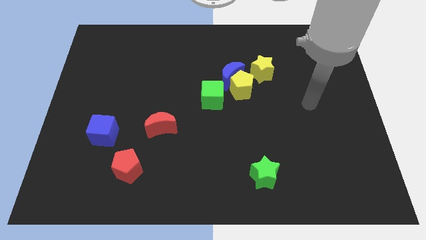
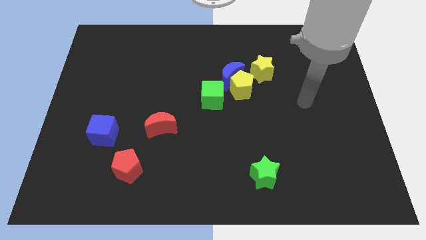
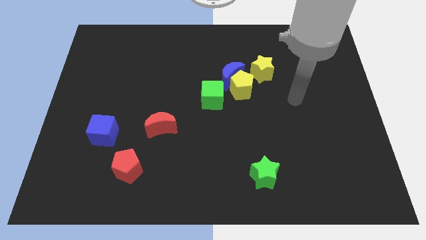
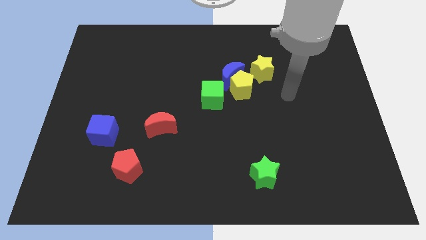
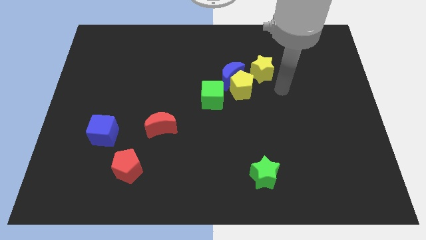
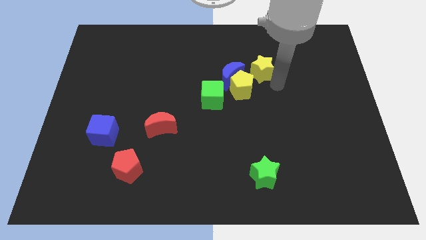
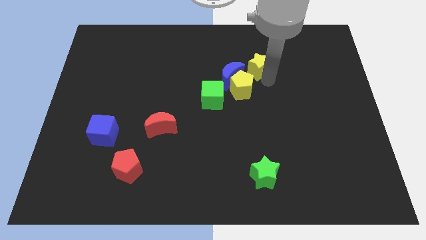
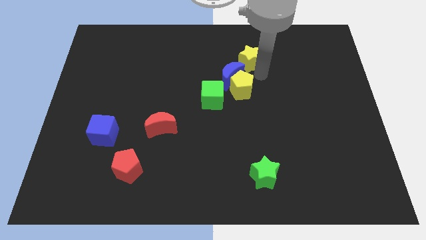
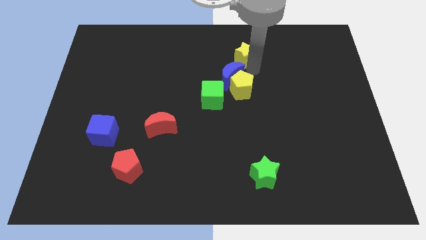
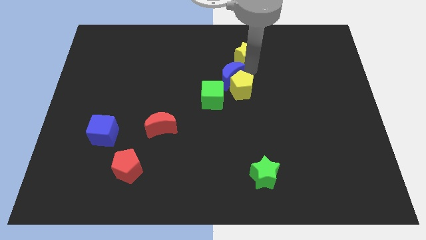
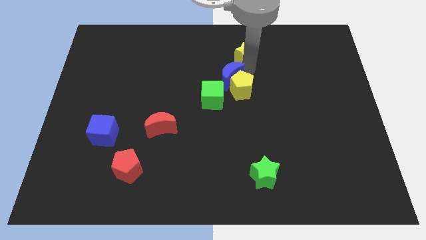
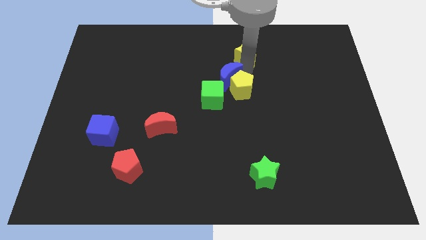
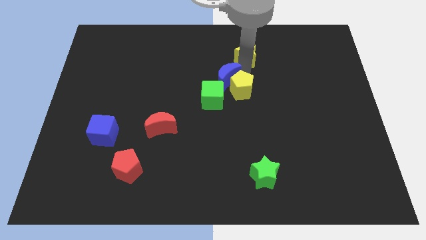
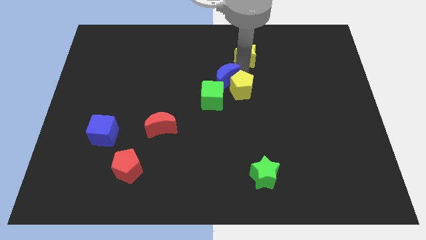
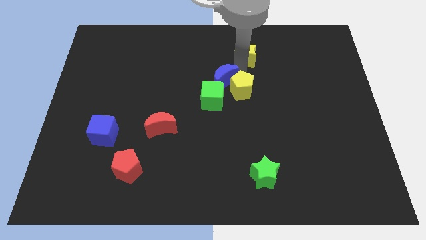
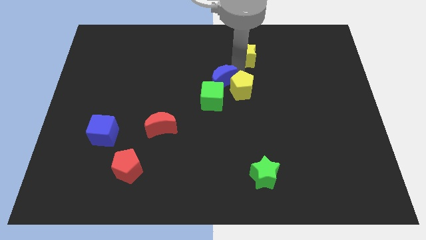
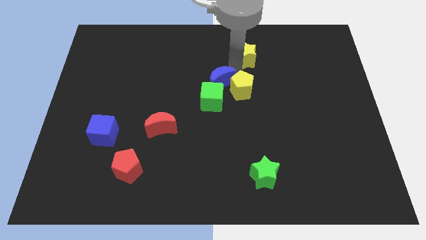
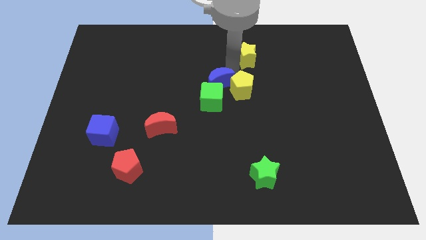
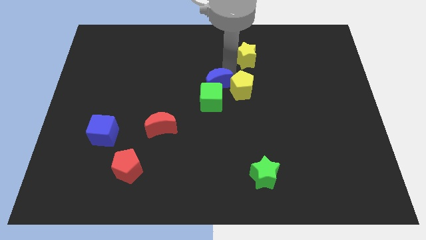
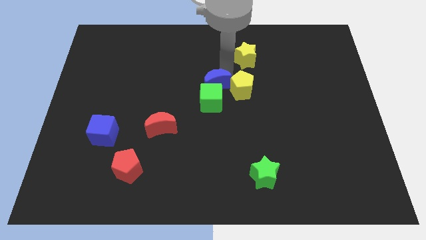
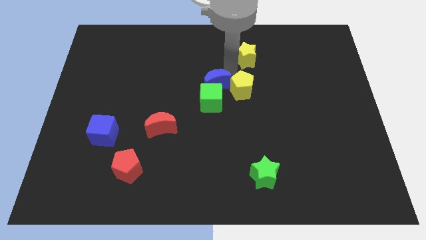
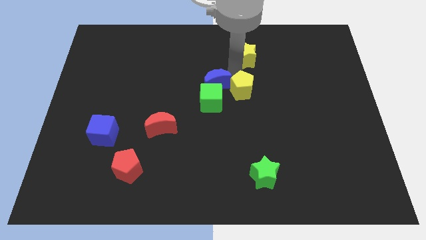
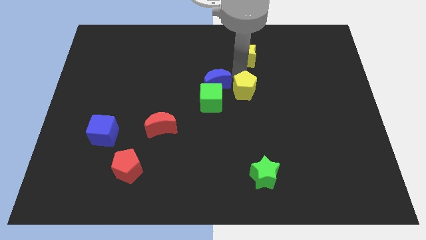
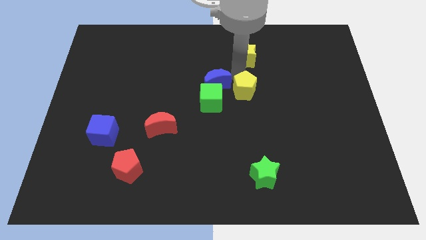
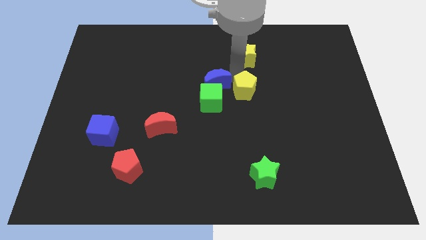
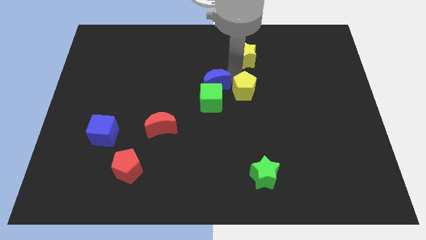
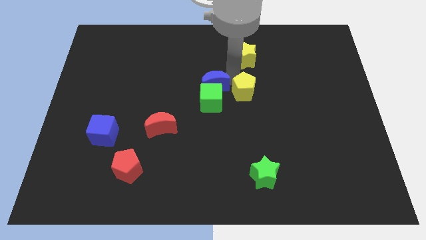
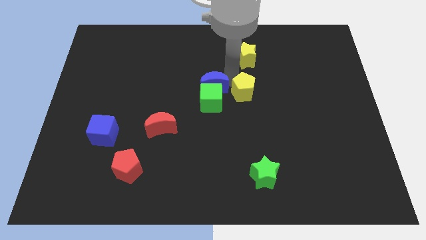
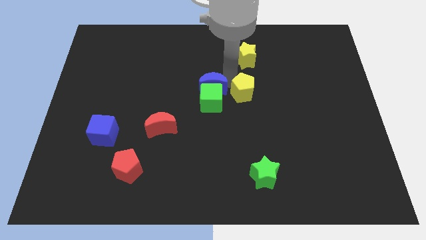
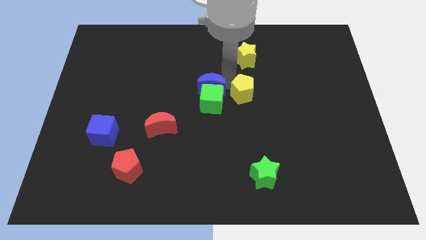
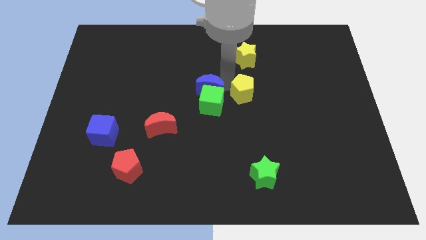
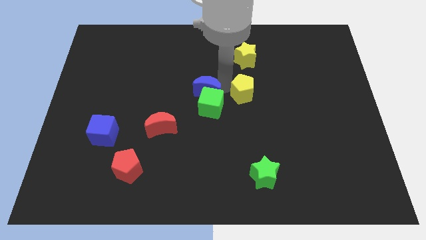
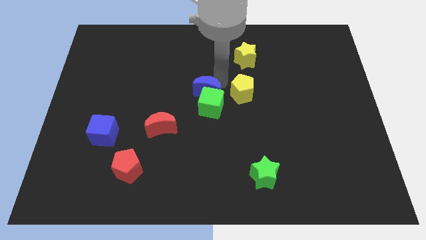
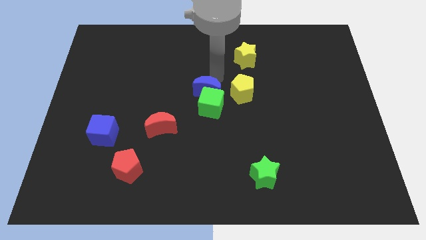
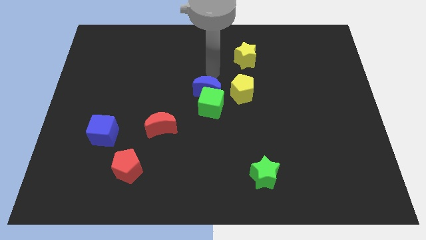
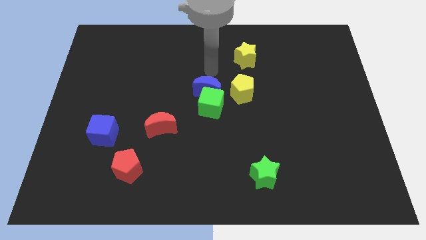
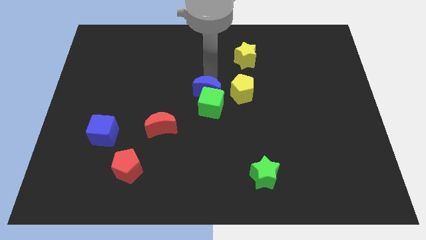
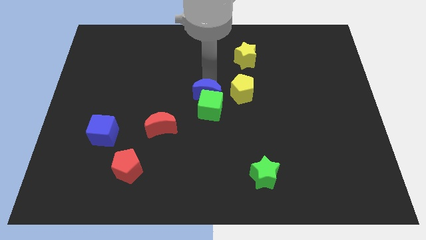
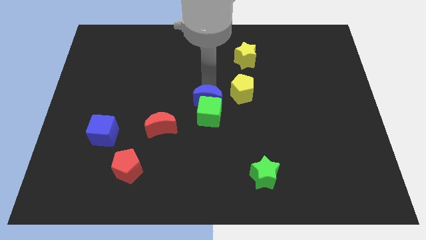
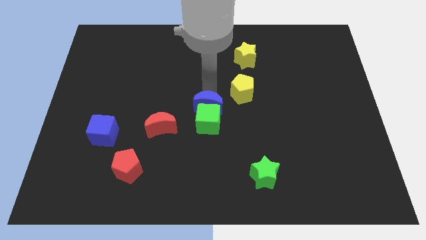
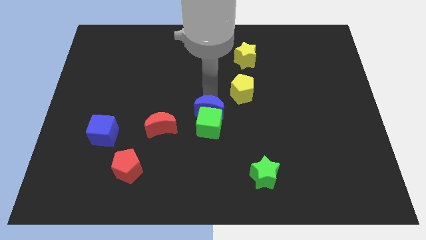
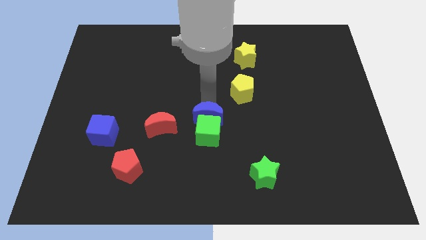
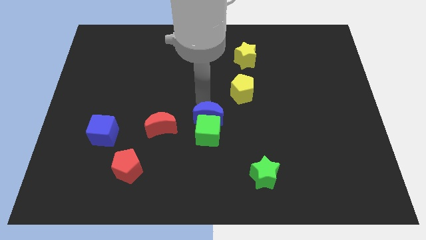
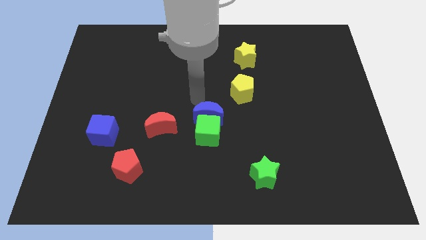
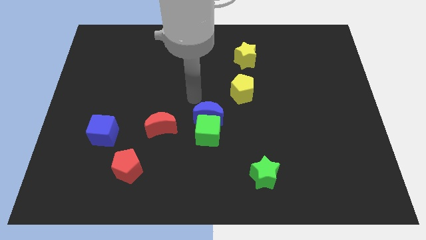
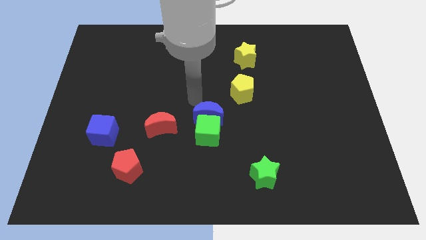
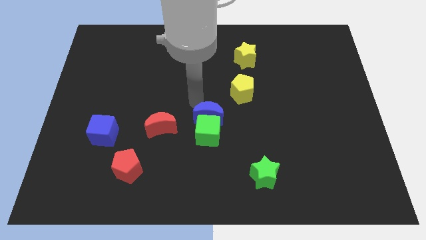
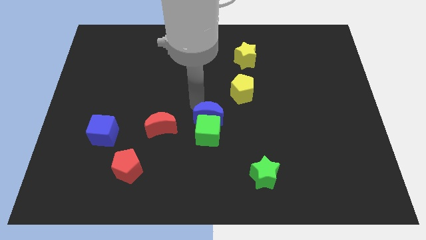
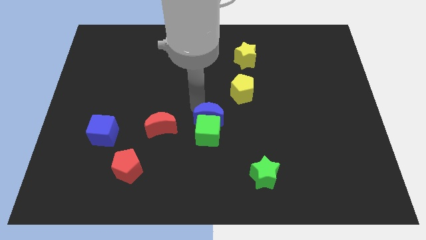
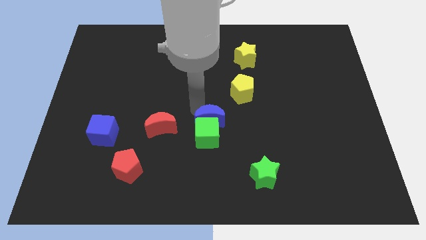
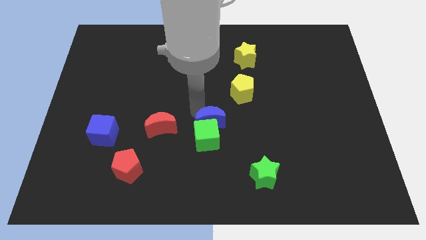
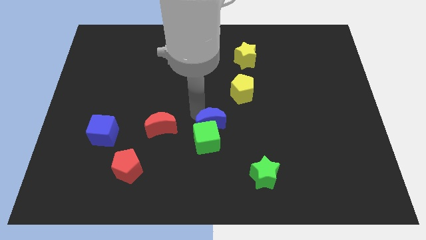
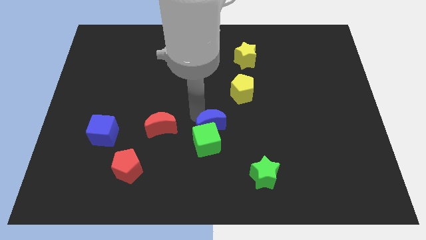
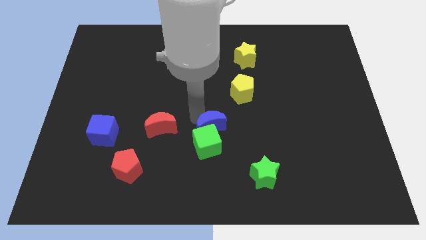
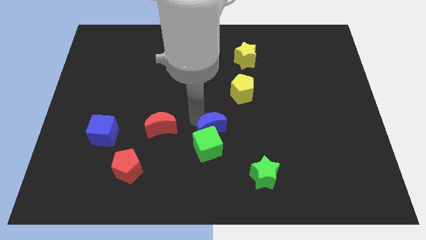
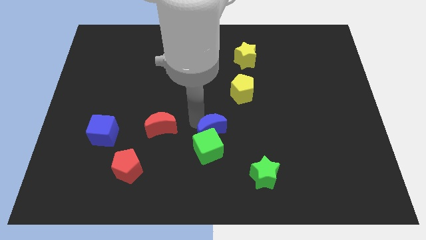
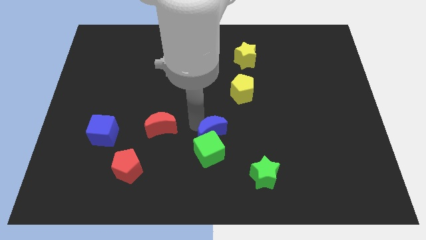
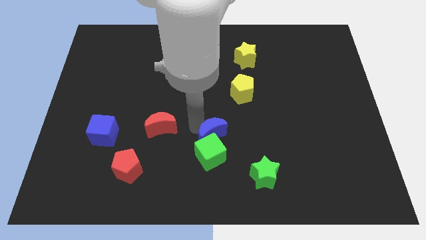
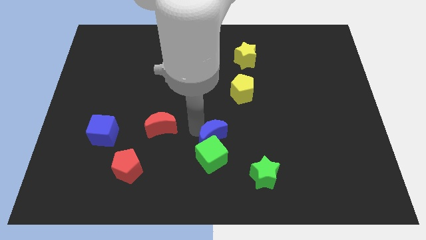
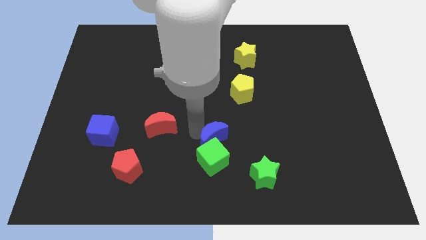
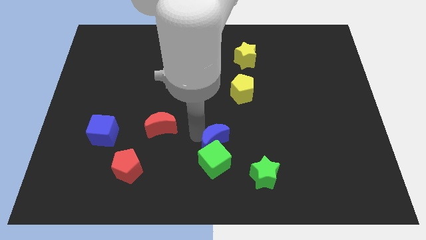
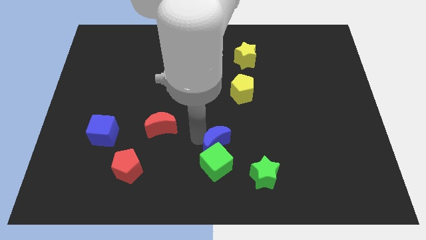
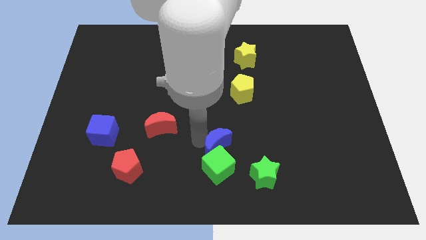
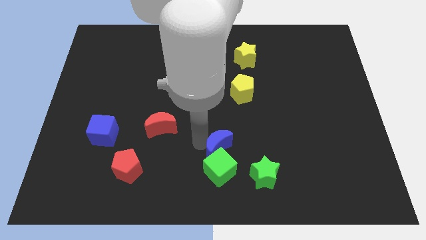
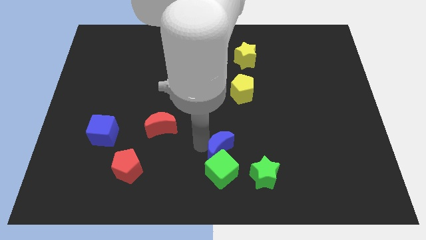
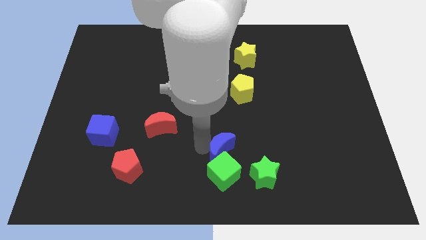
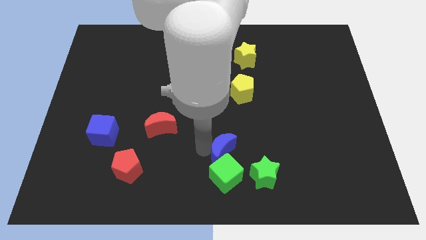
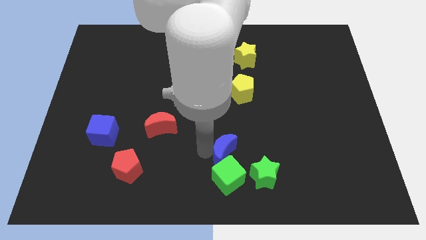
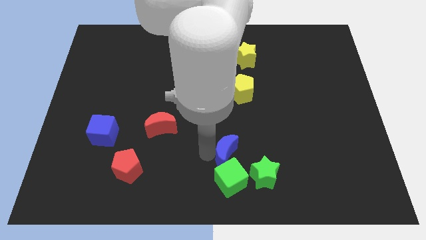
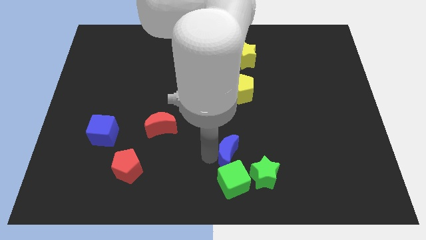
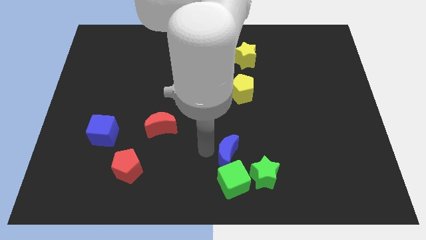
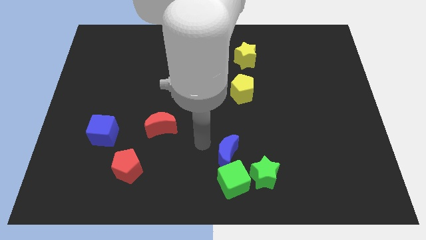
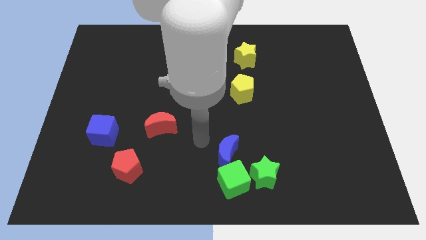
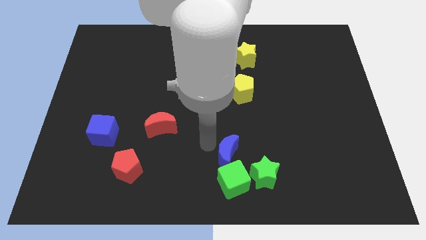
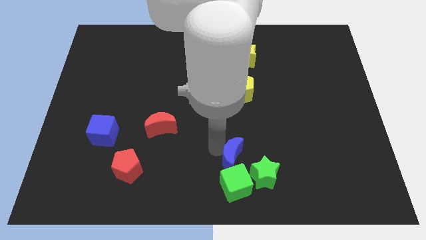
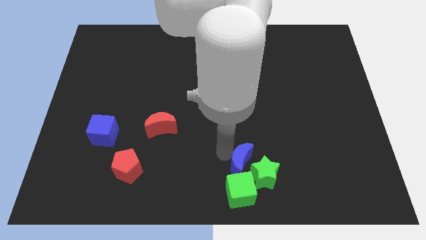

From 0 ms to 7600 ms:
put the blue moon to the green star
